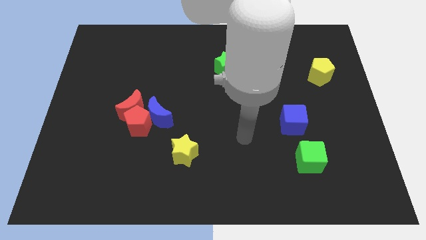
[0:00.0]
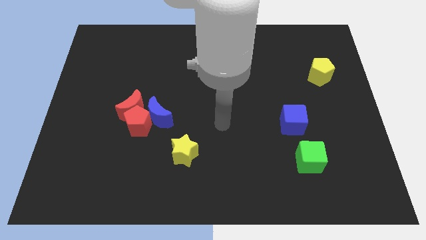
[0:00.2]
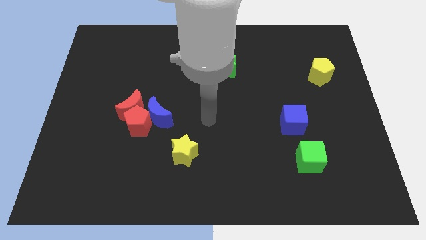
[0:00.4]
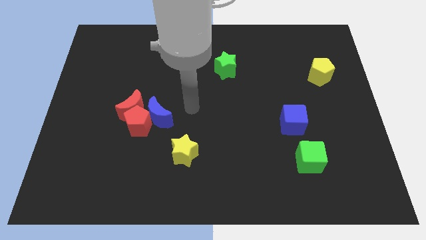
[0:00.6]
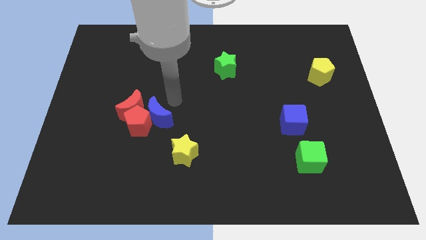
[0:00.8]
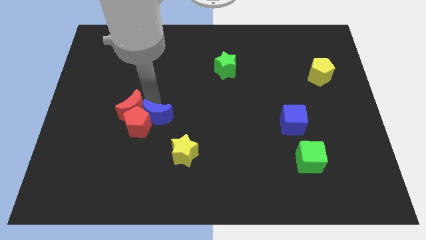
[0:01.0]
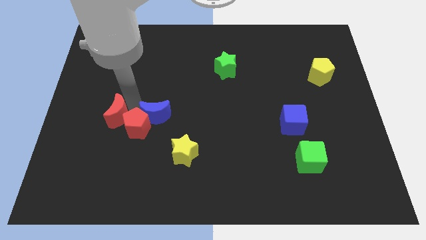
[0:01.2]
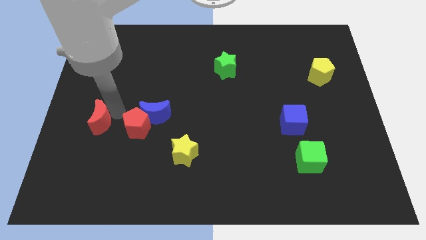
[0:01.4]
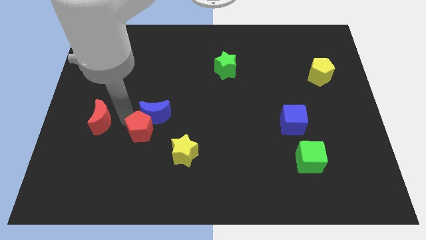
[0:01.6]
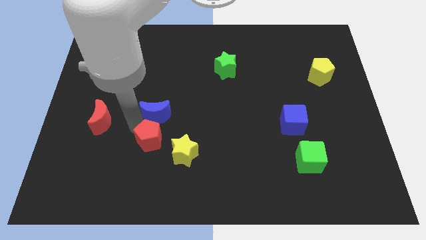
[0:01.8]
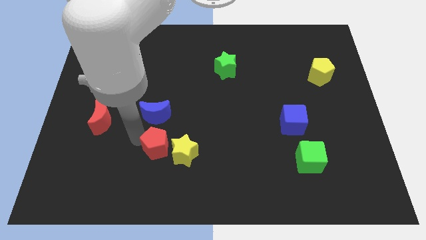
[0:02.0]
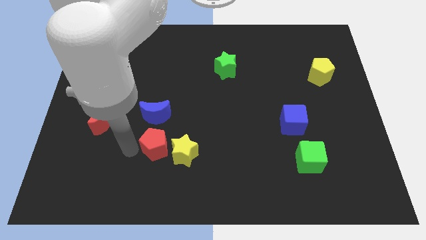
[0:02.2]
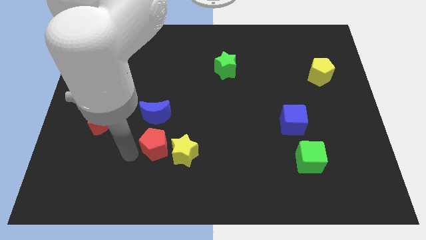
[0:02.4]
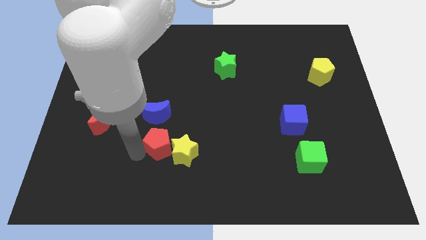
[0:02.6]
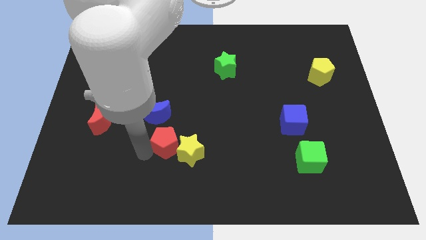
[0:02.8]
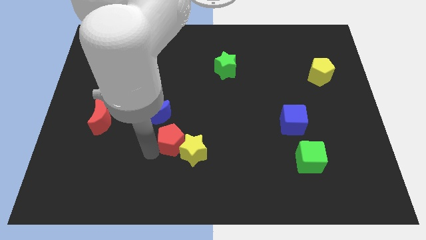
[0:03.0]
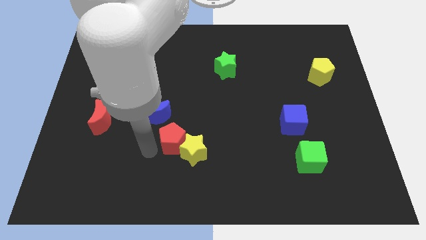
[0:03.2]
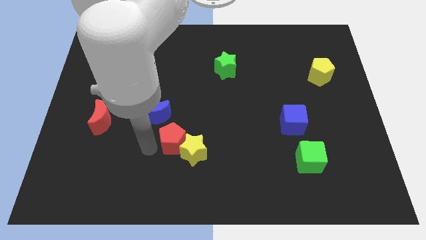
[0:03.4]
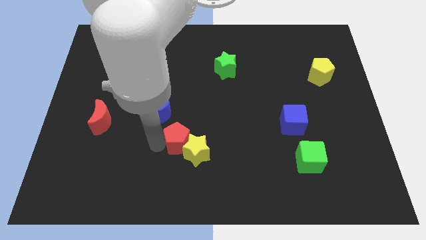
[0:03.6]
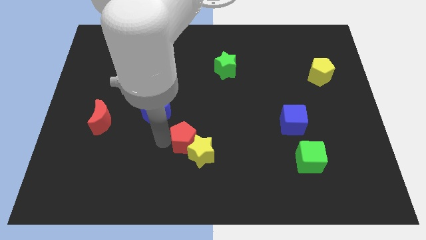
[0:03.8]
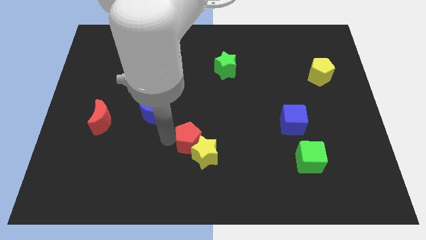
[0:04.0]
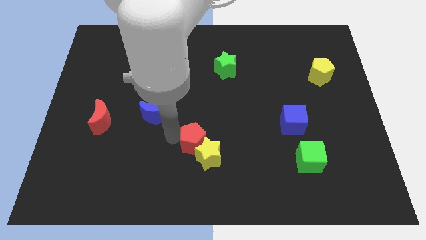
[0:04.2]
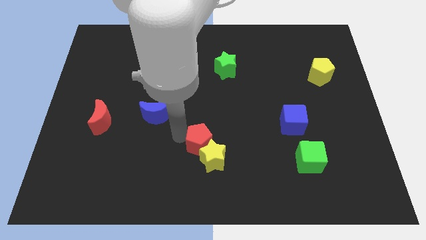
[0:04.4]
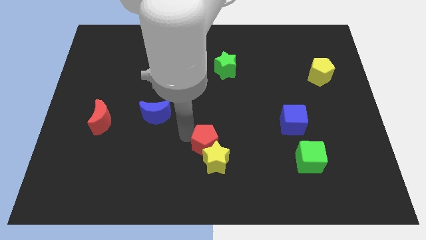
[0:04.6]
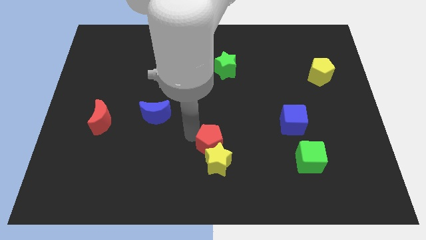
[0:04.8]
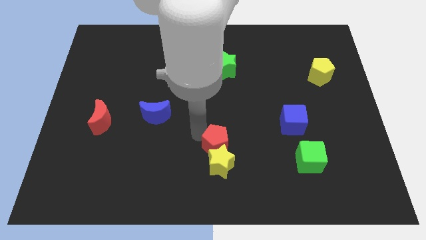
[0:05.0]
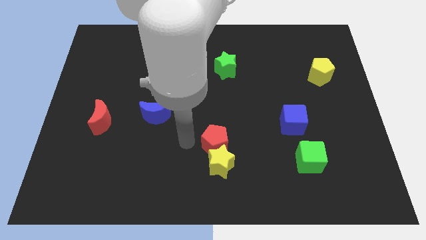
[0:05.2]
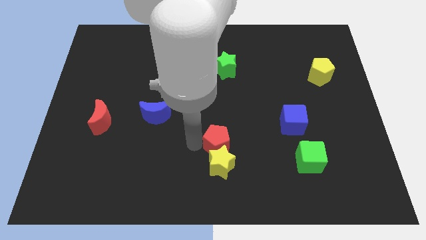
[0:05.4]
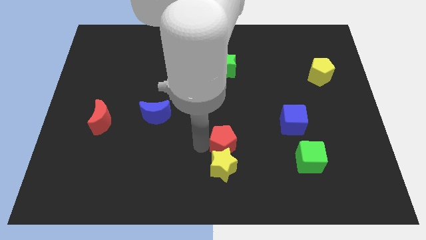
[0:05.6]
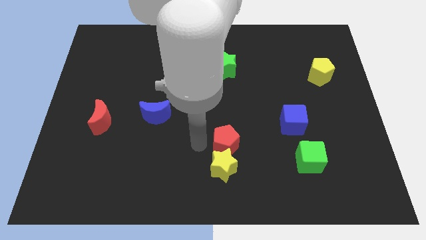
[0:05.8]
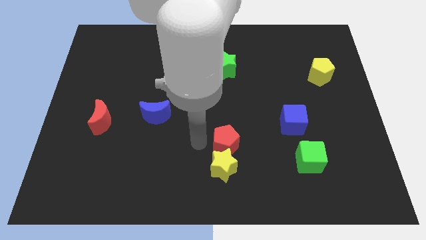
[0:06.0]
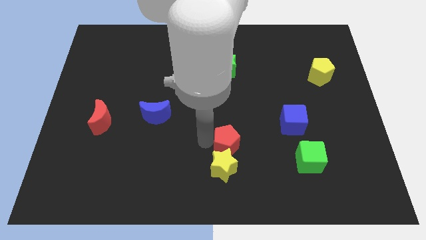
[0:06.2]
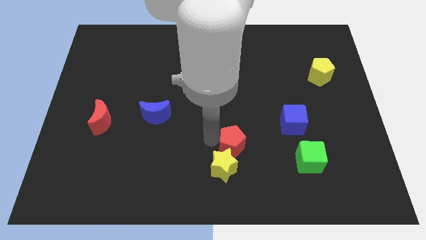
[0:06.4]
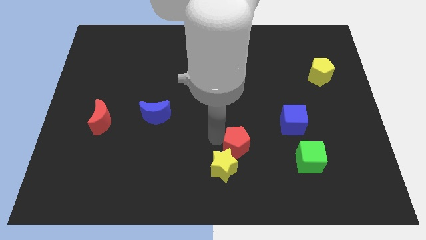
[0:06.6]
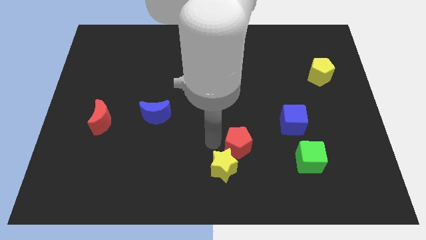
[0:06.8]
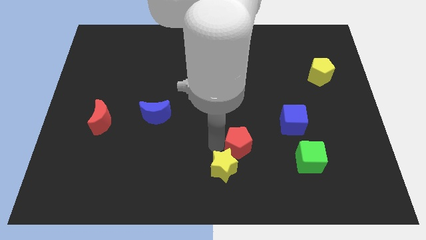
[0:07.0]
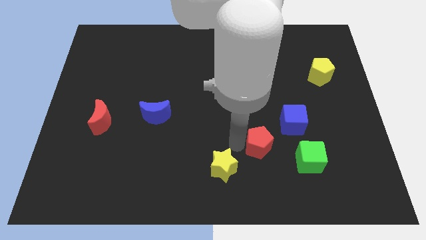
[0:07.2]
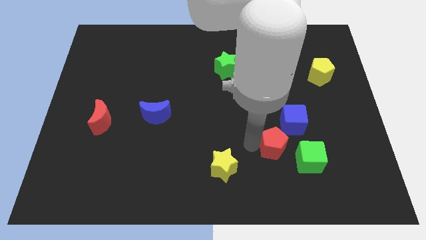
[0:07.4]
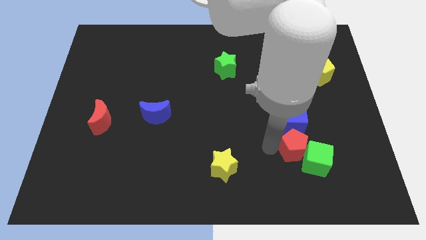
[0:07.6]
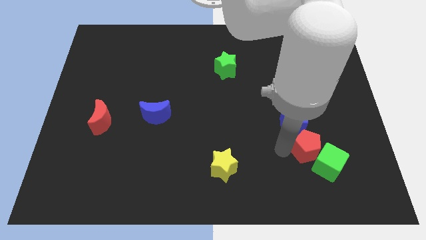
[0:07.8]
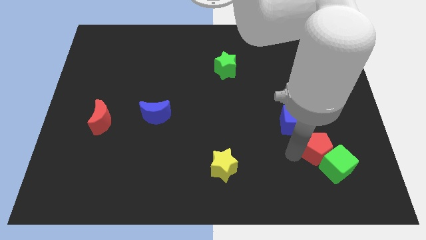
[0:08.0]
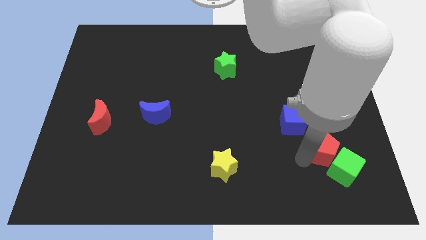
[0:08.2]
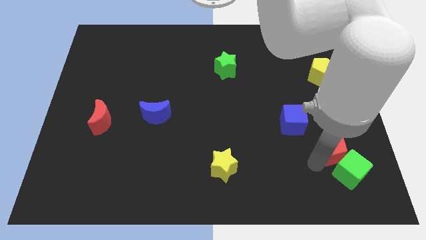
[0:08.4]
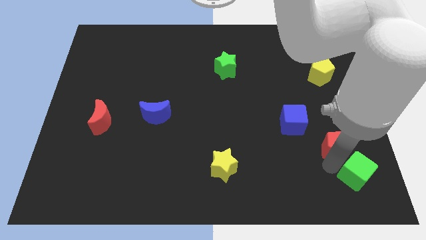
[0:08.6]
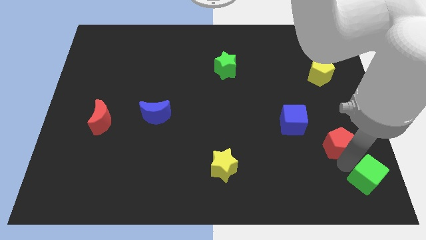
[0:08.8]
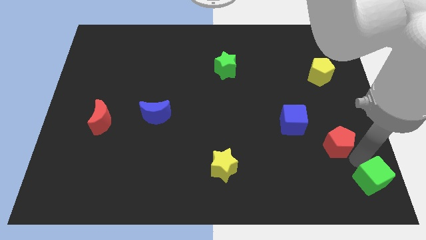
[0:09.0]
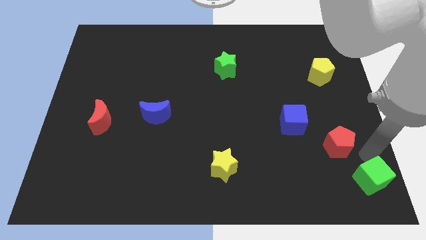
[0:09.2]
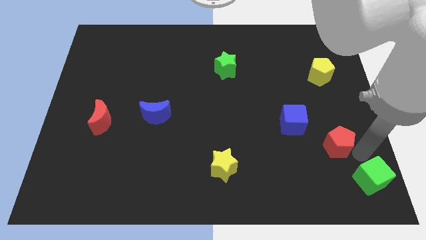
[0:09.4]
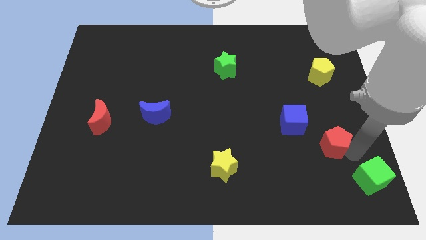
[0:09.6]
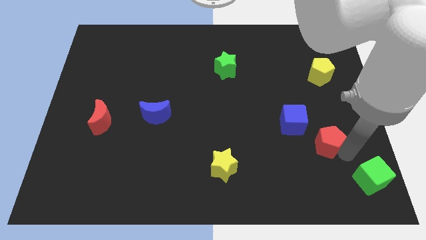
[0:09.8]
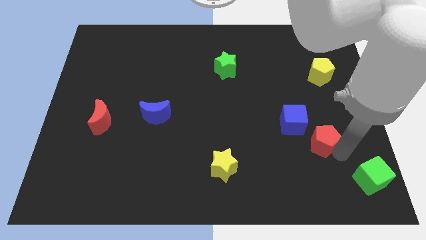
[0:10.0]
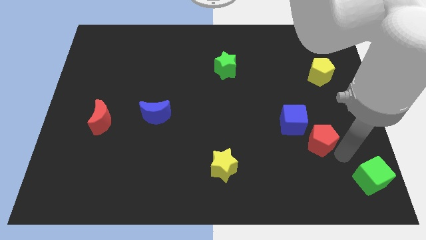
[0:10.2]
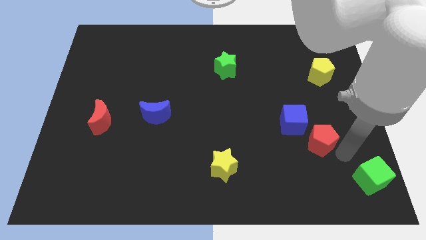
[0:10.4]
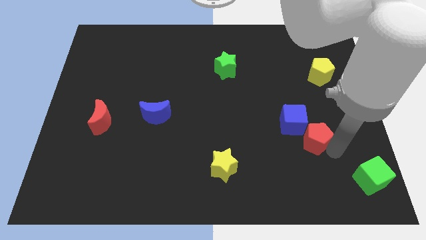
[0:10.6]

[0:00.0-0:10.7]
push the red pentagon right of the blue cube

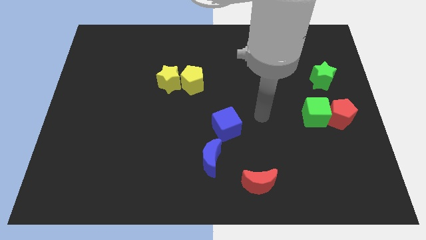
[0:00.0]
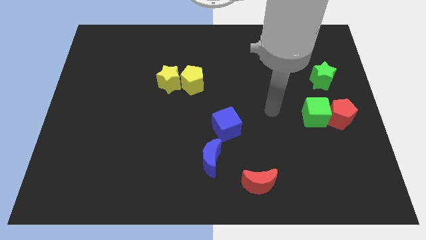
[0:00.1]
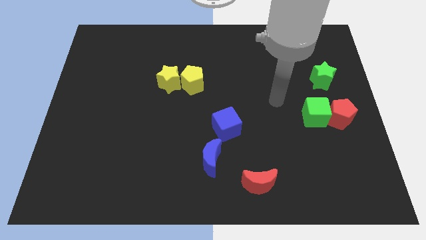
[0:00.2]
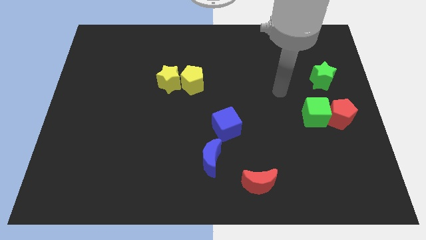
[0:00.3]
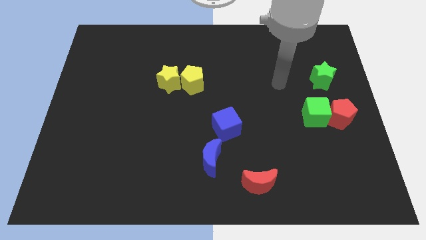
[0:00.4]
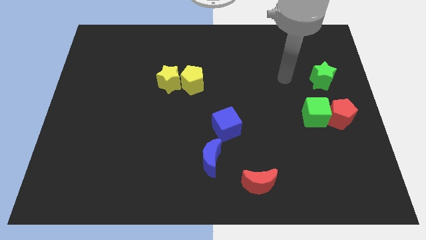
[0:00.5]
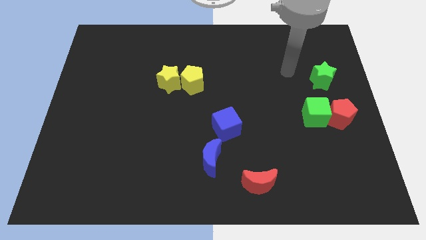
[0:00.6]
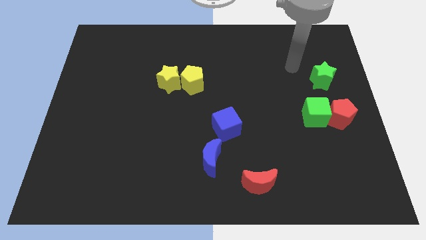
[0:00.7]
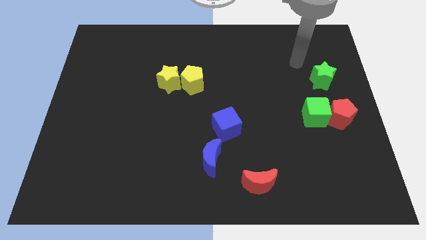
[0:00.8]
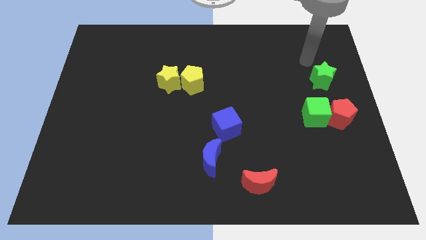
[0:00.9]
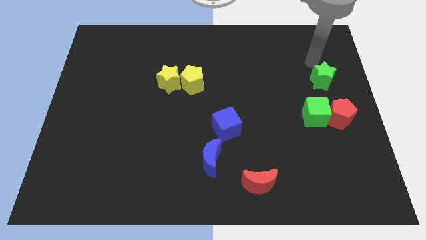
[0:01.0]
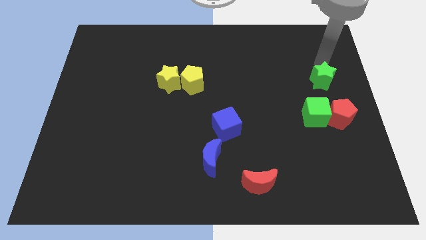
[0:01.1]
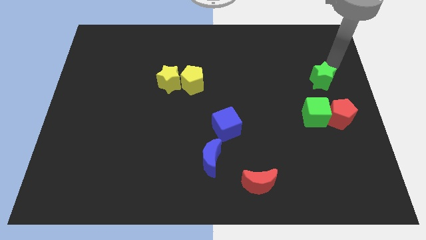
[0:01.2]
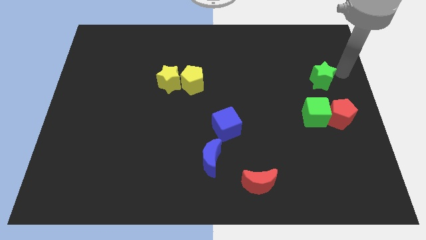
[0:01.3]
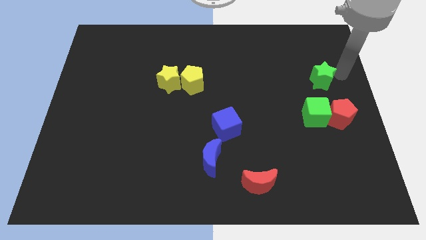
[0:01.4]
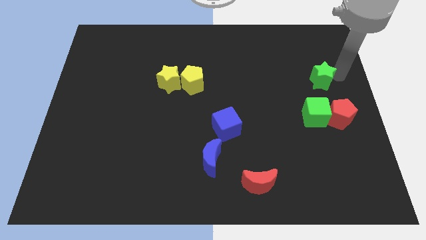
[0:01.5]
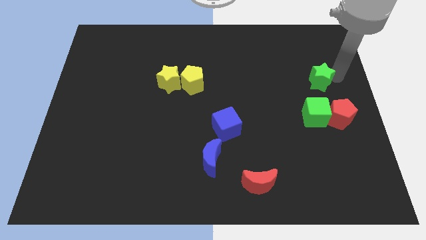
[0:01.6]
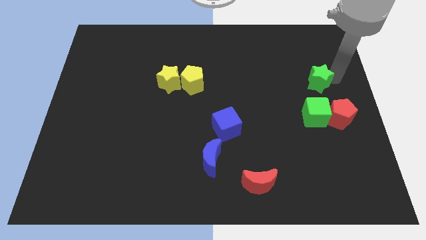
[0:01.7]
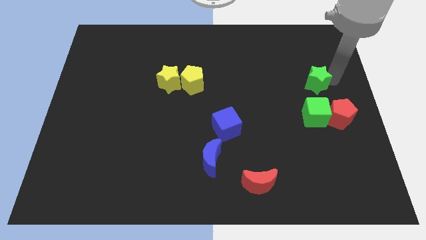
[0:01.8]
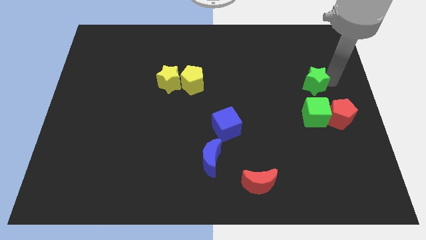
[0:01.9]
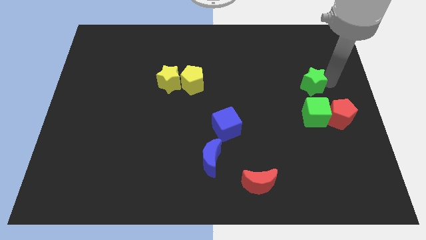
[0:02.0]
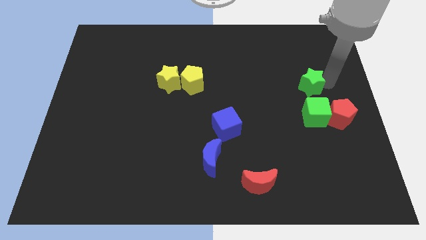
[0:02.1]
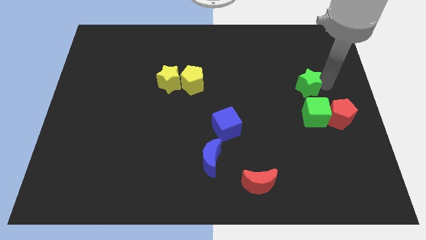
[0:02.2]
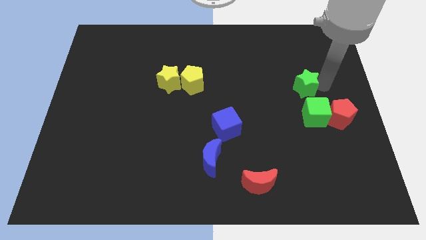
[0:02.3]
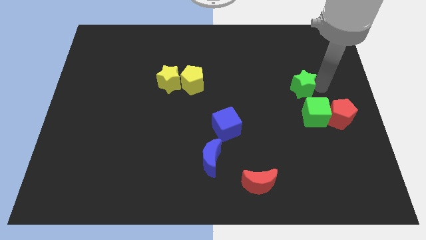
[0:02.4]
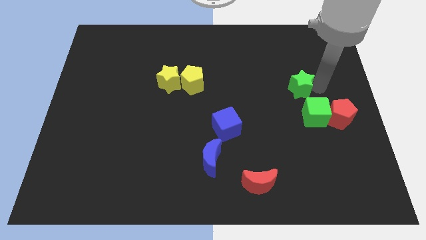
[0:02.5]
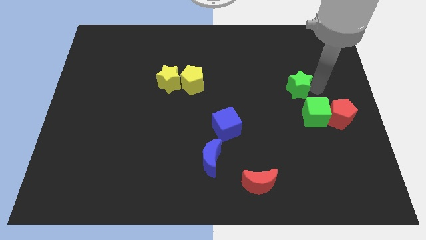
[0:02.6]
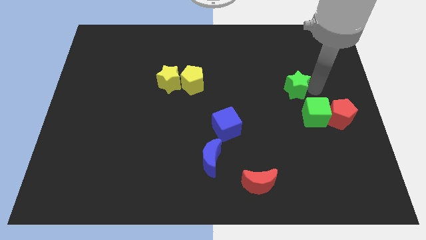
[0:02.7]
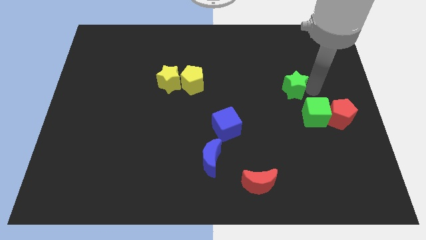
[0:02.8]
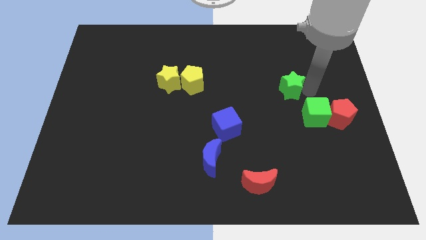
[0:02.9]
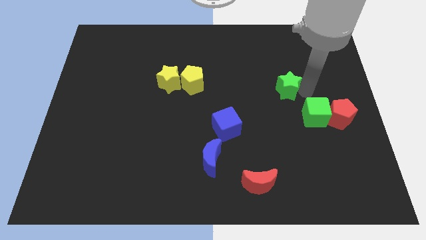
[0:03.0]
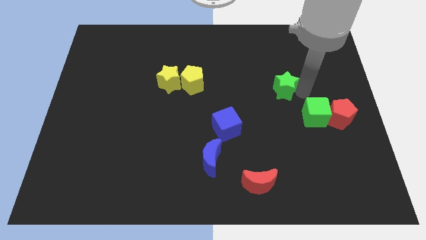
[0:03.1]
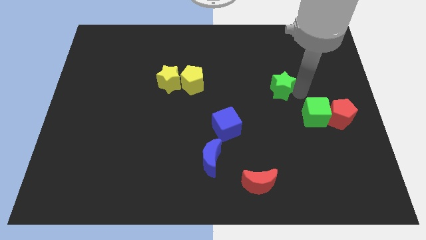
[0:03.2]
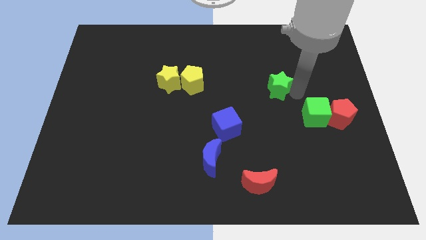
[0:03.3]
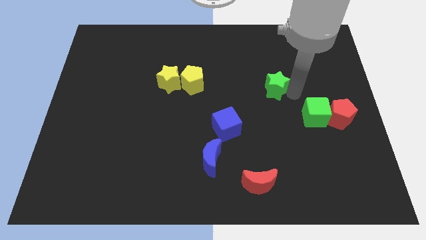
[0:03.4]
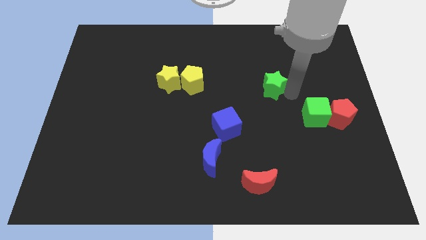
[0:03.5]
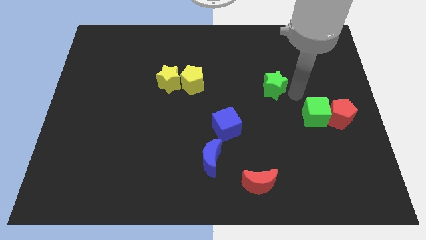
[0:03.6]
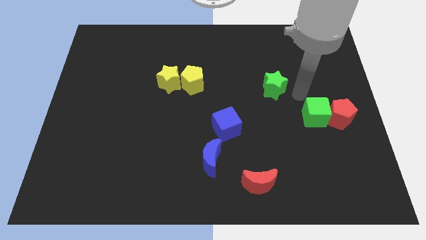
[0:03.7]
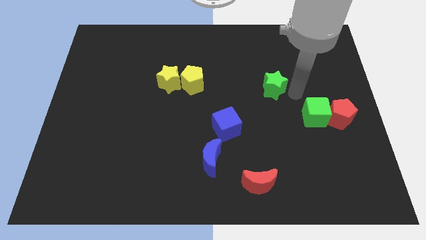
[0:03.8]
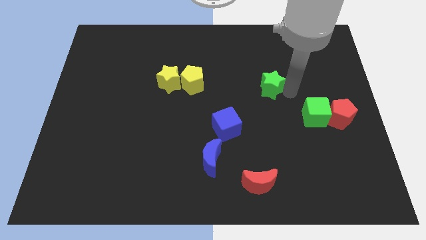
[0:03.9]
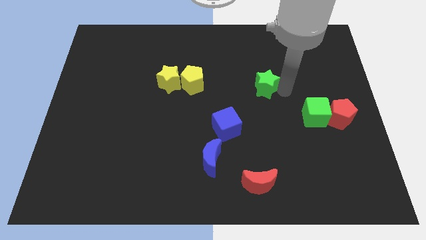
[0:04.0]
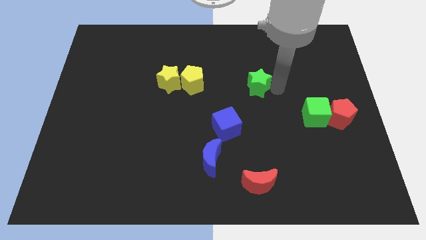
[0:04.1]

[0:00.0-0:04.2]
push the green star right of the yellow pentagon
